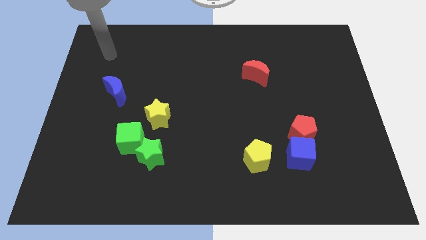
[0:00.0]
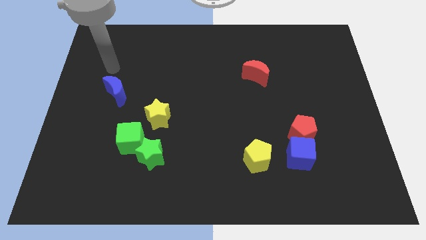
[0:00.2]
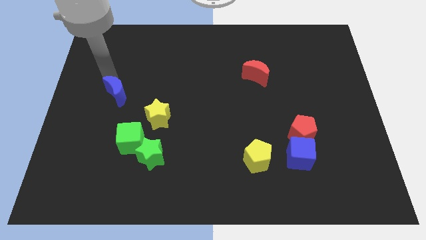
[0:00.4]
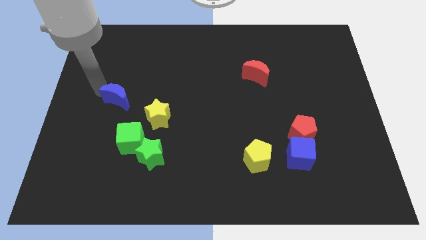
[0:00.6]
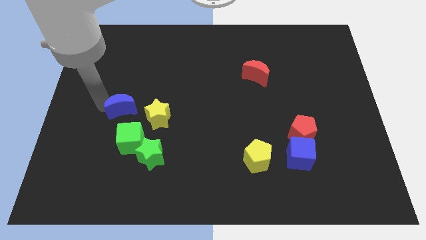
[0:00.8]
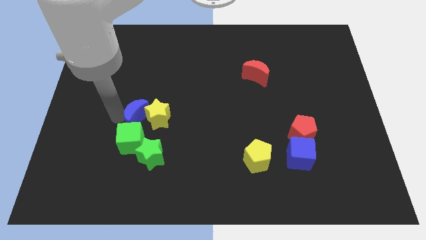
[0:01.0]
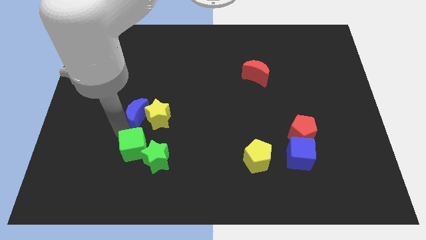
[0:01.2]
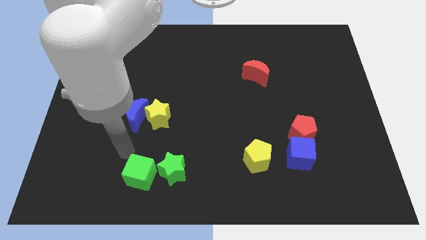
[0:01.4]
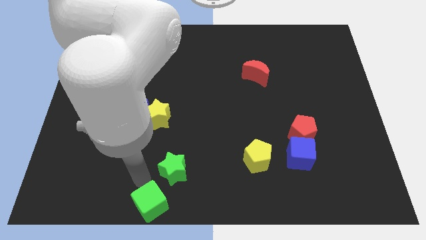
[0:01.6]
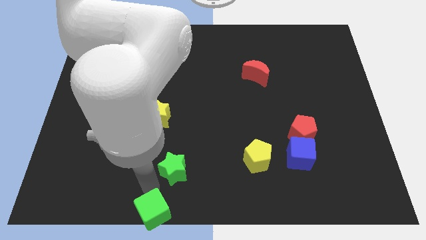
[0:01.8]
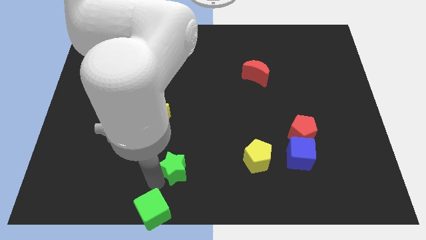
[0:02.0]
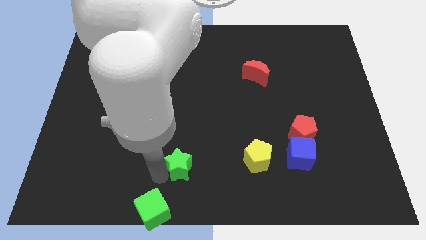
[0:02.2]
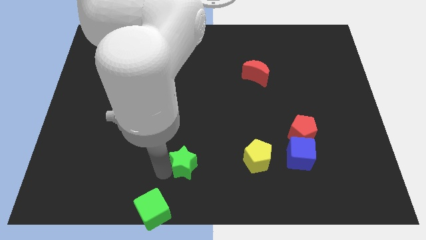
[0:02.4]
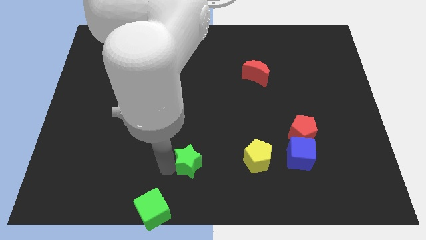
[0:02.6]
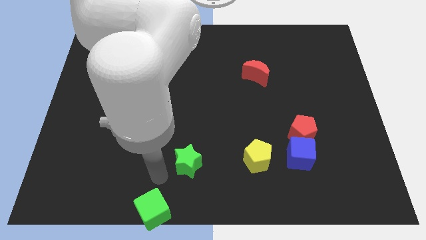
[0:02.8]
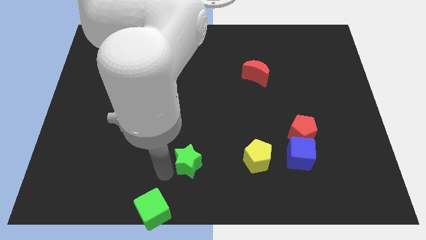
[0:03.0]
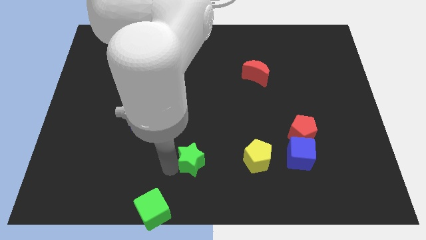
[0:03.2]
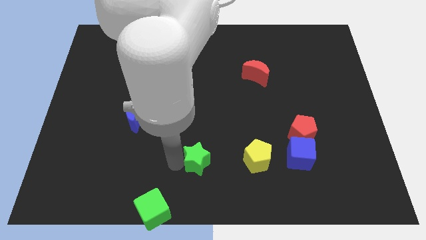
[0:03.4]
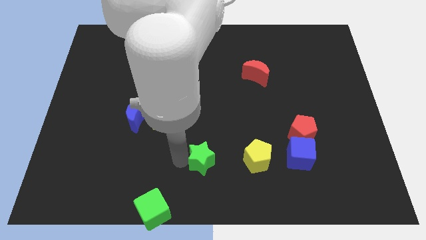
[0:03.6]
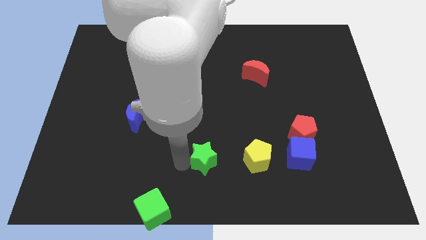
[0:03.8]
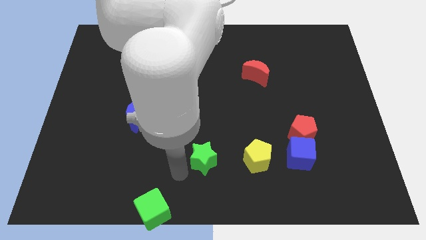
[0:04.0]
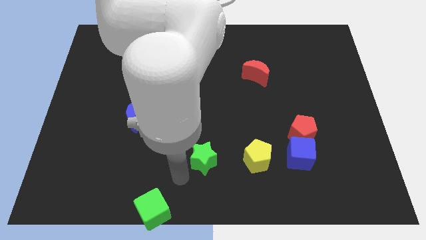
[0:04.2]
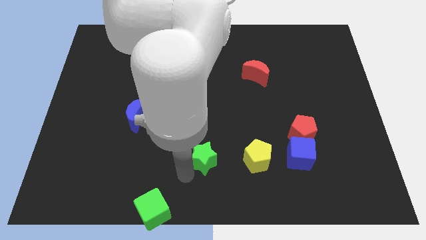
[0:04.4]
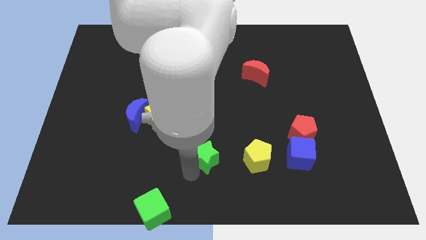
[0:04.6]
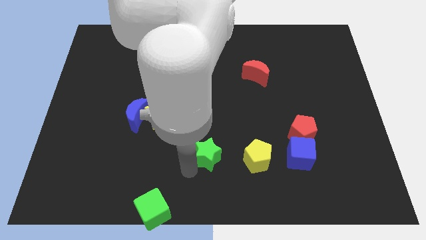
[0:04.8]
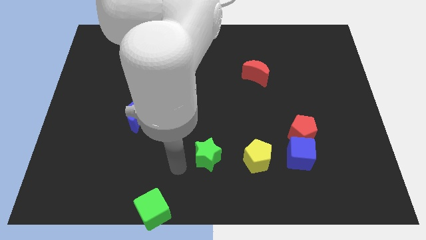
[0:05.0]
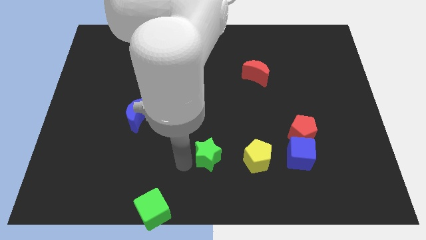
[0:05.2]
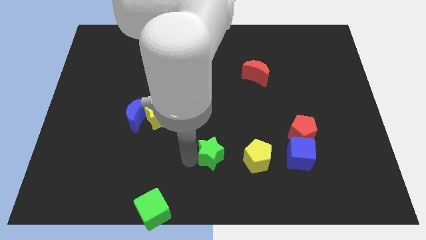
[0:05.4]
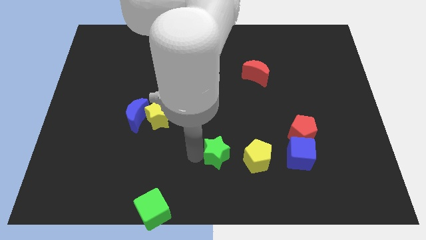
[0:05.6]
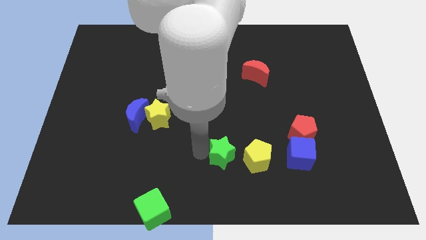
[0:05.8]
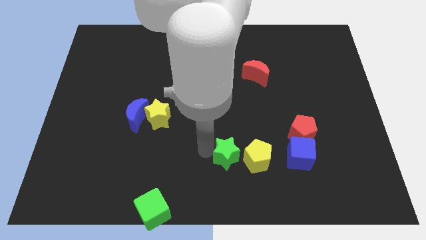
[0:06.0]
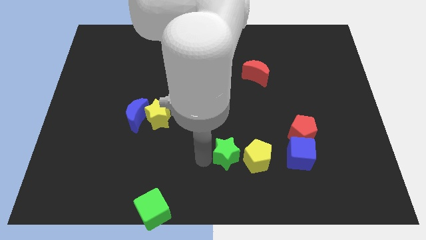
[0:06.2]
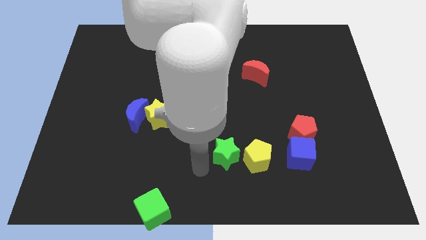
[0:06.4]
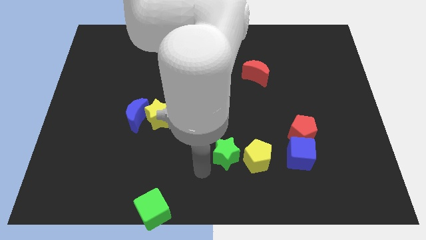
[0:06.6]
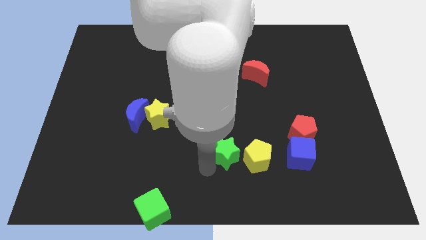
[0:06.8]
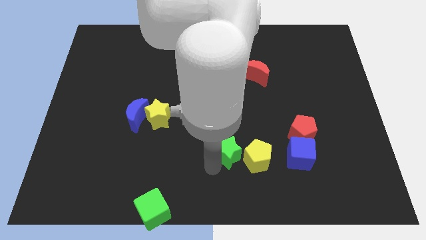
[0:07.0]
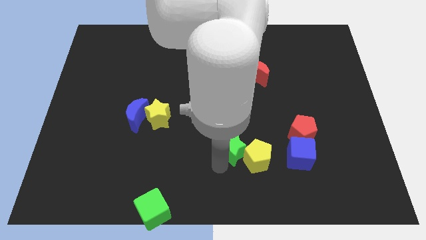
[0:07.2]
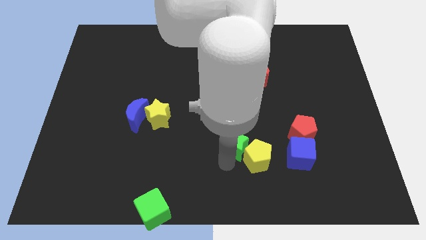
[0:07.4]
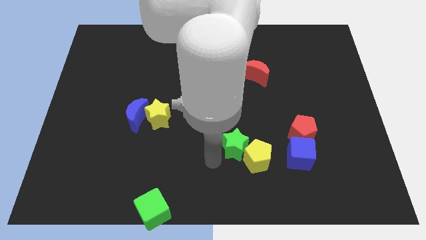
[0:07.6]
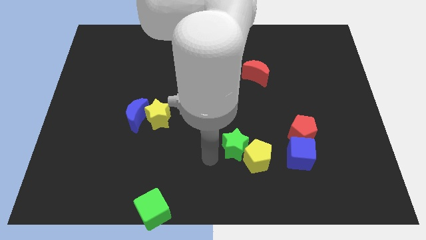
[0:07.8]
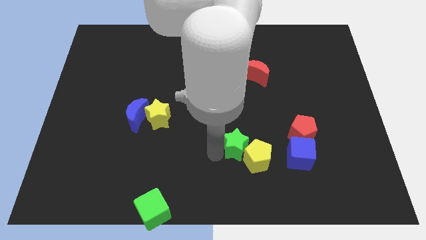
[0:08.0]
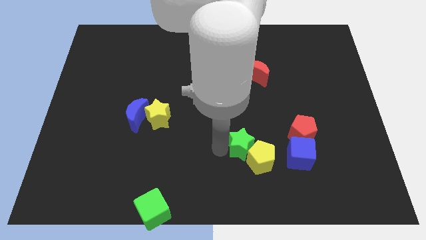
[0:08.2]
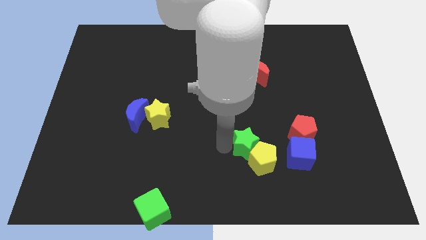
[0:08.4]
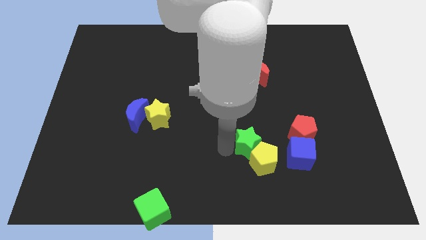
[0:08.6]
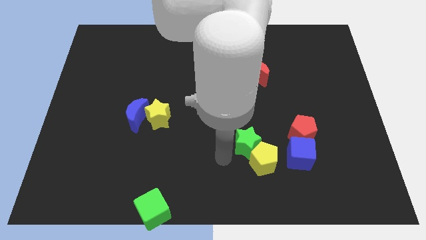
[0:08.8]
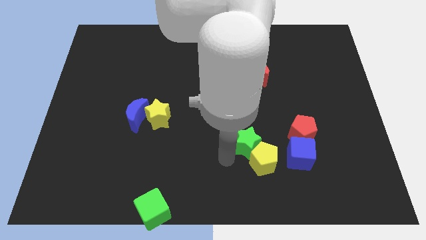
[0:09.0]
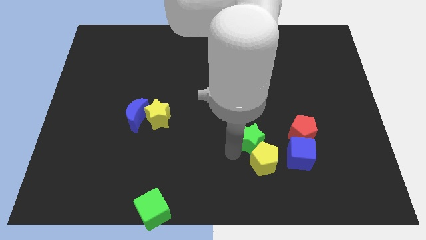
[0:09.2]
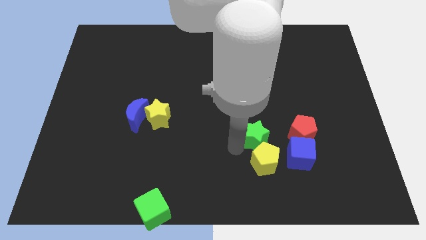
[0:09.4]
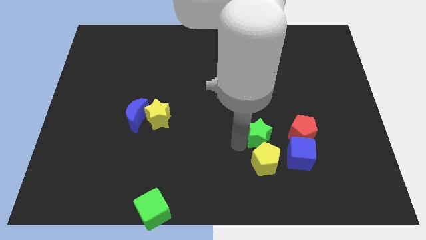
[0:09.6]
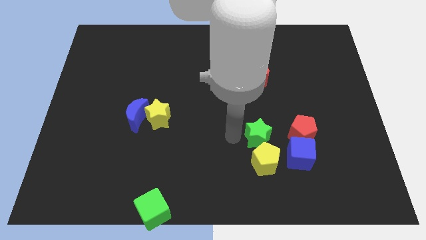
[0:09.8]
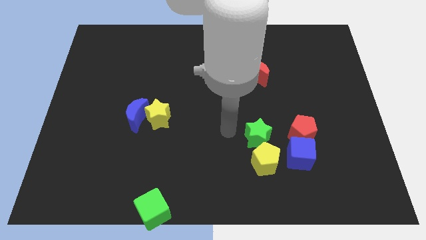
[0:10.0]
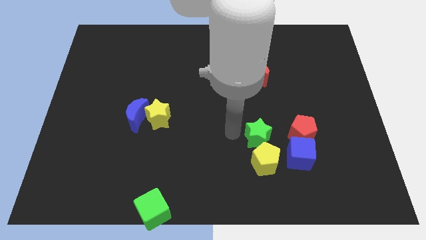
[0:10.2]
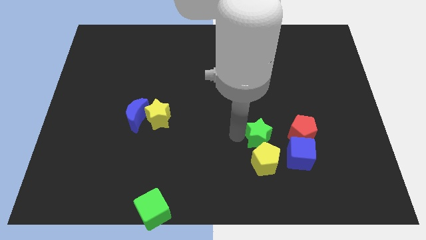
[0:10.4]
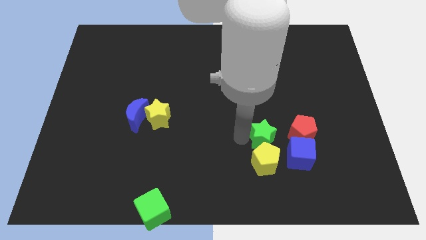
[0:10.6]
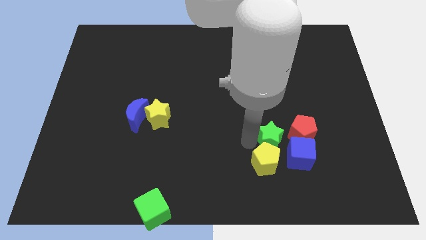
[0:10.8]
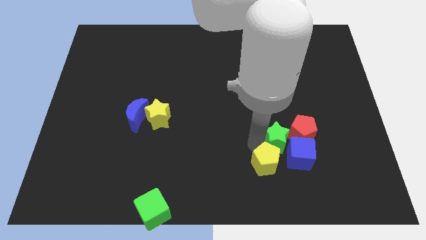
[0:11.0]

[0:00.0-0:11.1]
slide the green star next to the blue cube

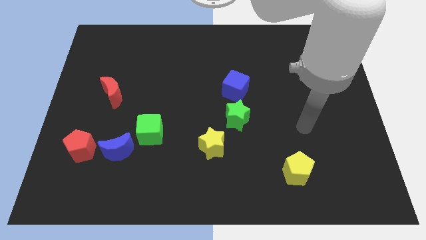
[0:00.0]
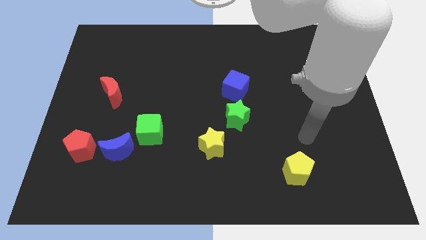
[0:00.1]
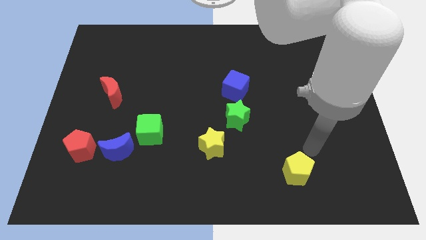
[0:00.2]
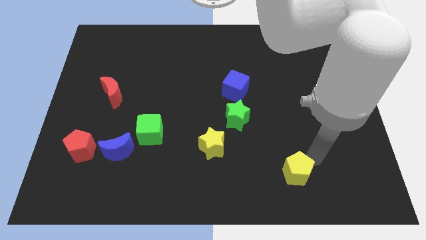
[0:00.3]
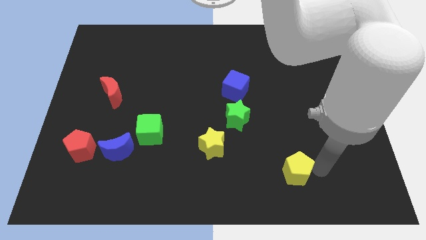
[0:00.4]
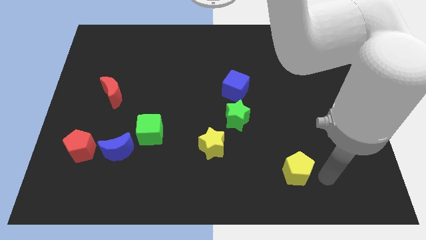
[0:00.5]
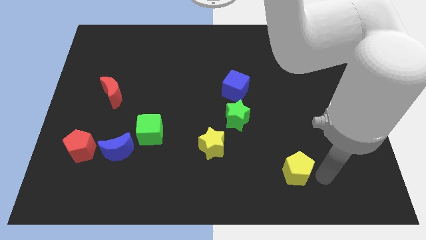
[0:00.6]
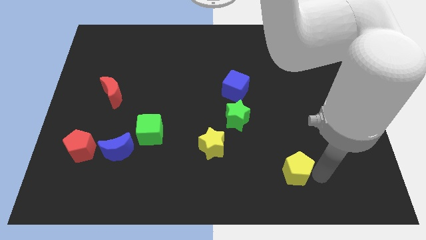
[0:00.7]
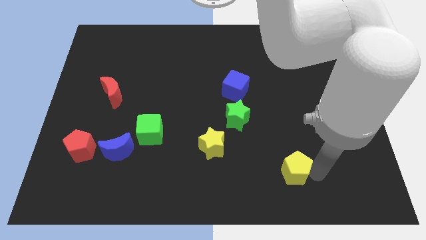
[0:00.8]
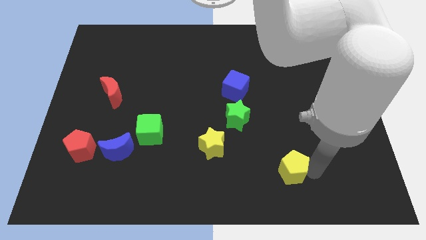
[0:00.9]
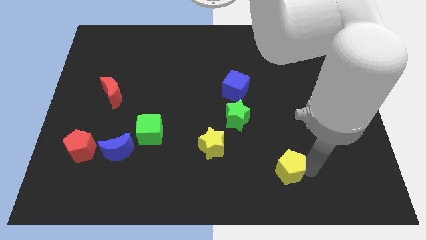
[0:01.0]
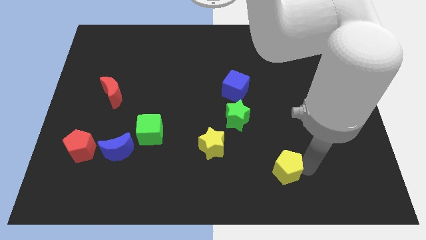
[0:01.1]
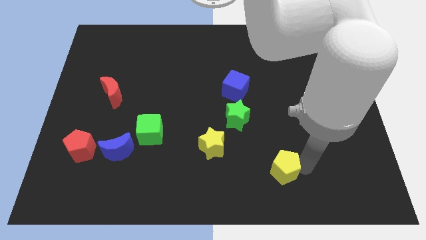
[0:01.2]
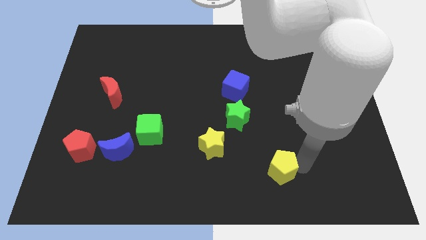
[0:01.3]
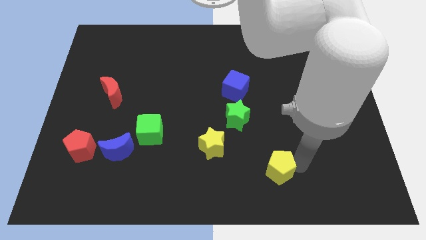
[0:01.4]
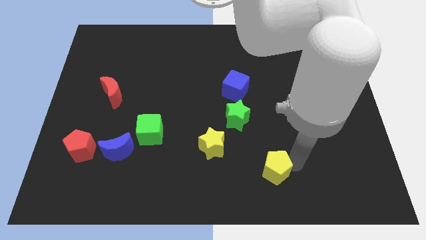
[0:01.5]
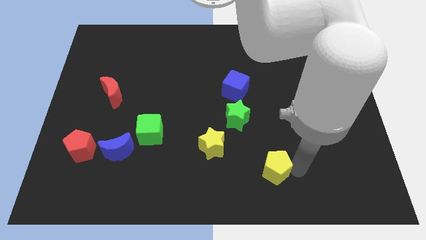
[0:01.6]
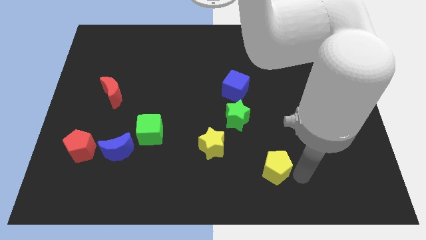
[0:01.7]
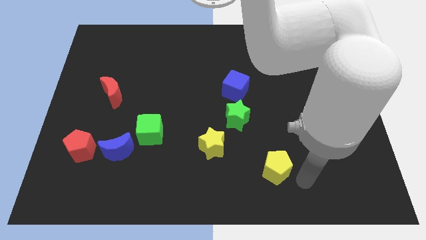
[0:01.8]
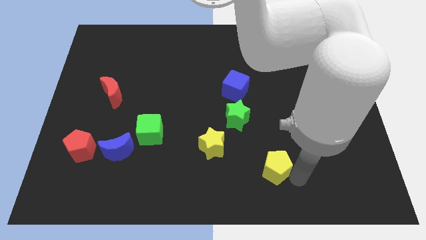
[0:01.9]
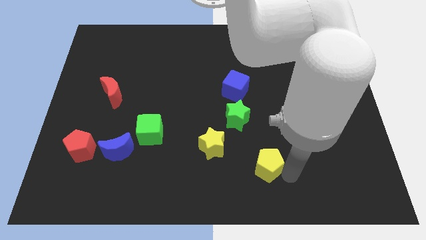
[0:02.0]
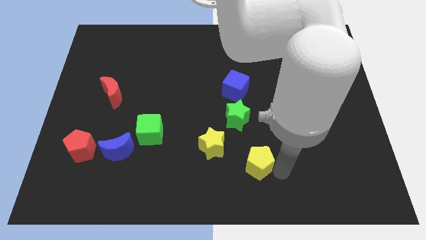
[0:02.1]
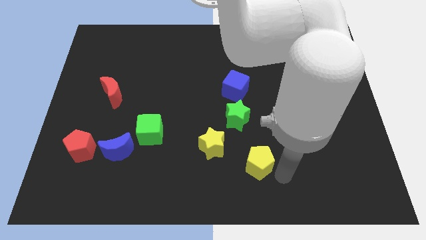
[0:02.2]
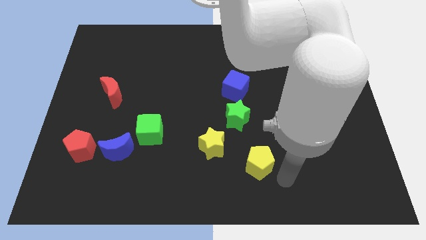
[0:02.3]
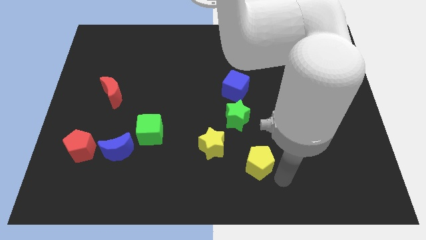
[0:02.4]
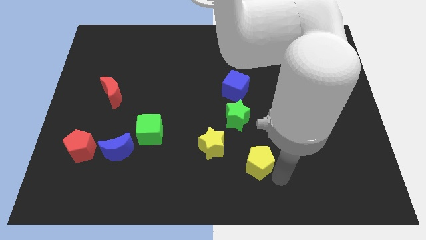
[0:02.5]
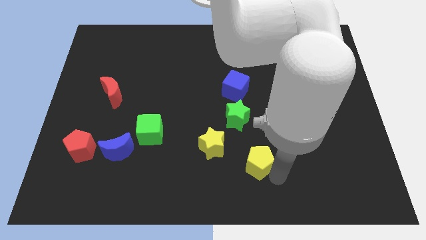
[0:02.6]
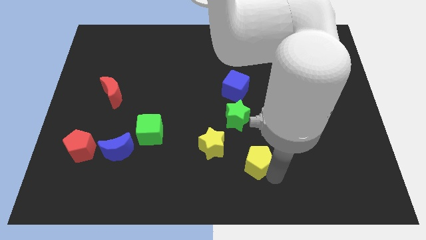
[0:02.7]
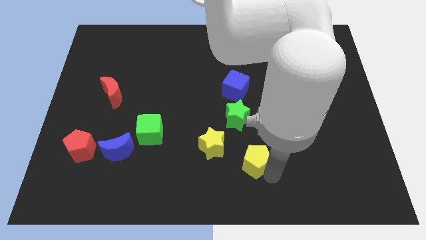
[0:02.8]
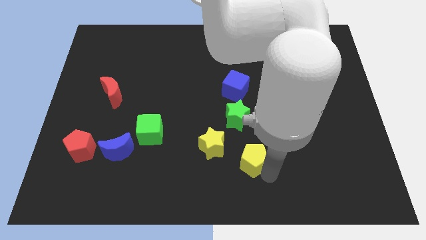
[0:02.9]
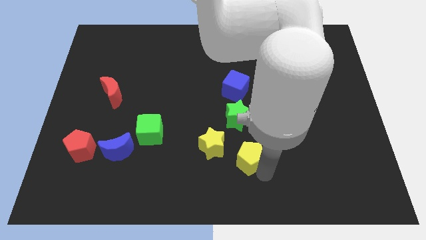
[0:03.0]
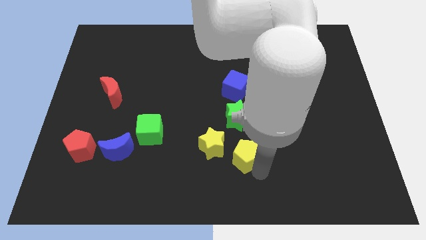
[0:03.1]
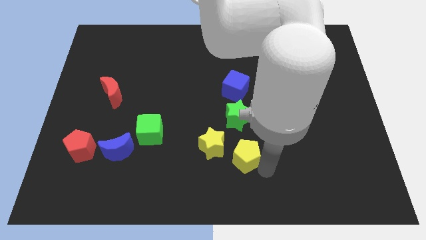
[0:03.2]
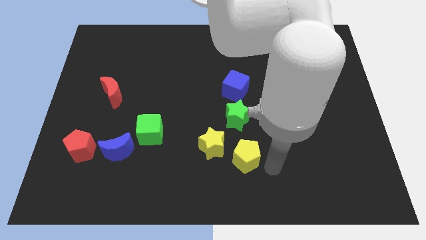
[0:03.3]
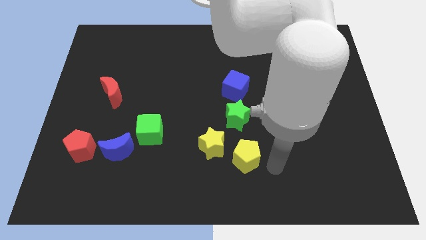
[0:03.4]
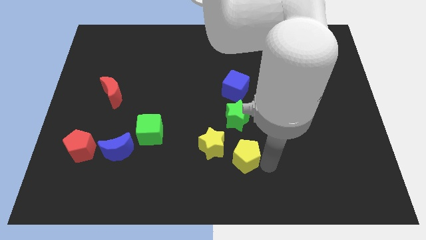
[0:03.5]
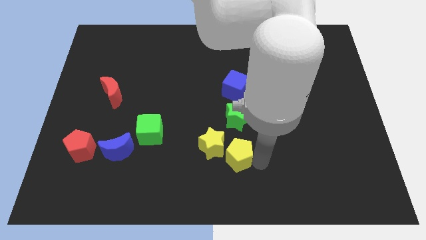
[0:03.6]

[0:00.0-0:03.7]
slide the yellow pentagon close to the yellow star
